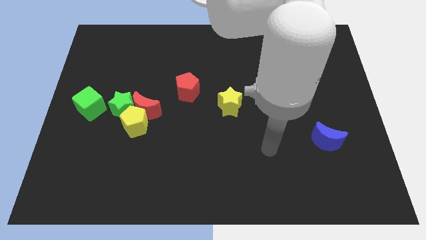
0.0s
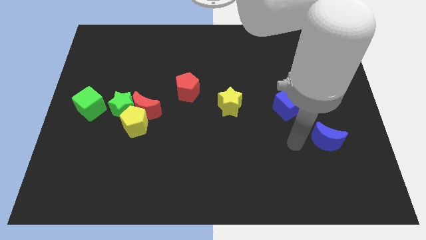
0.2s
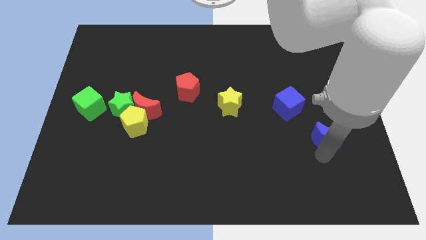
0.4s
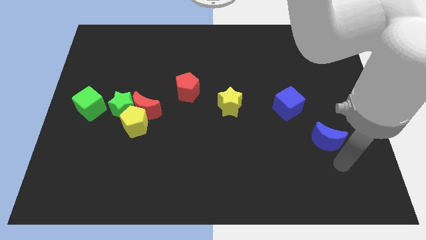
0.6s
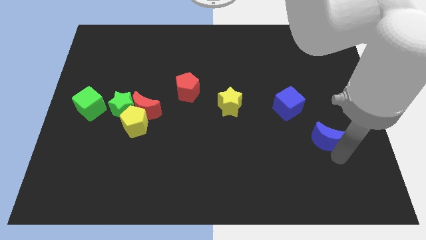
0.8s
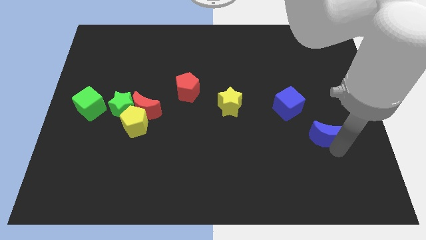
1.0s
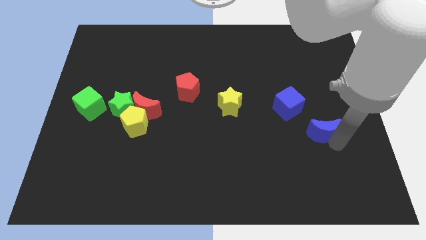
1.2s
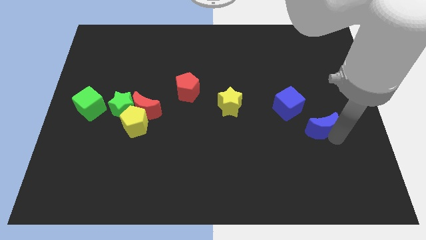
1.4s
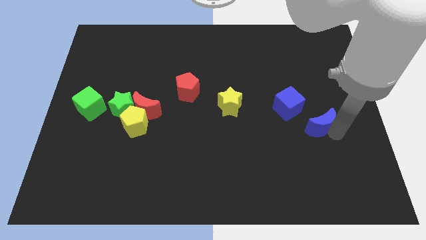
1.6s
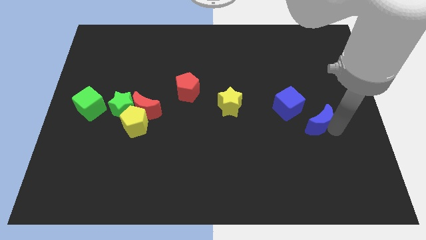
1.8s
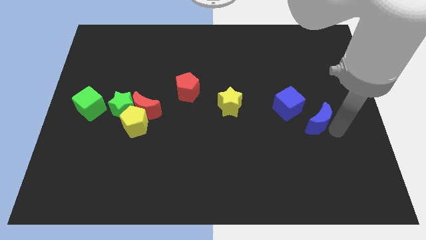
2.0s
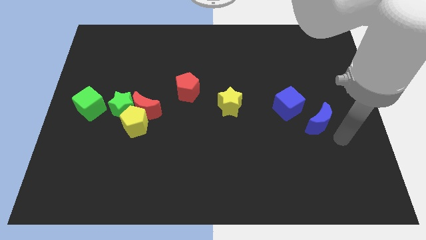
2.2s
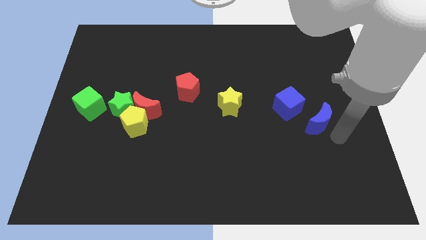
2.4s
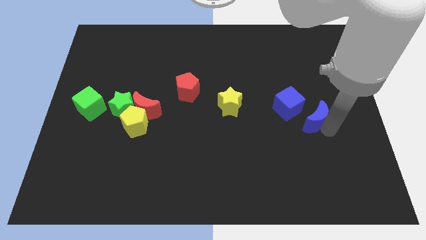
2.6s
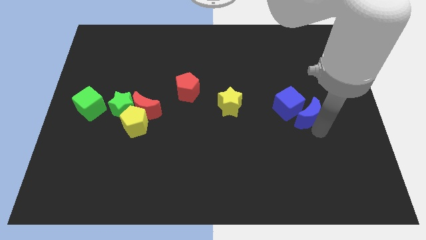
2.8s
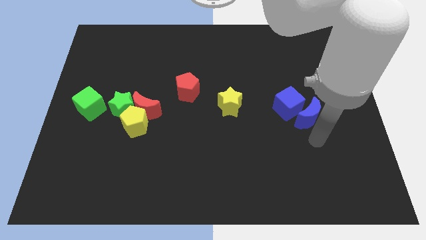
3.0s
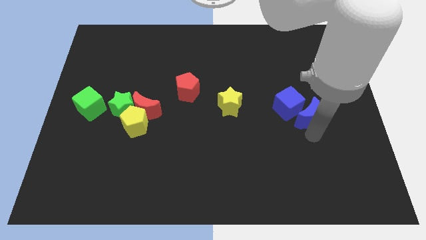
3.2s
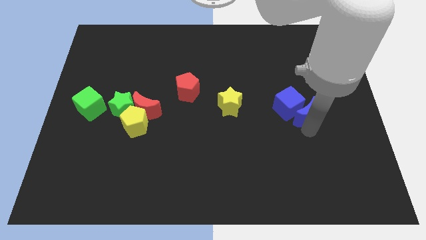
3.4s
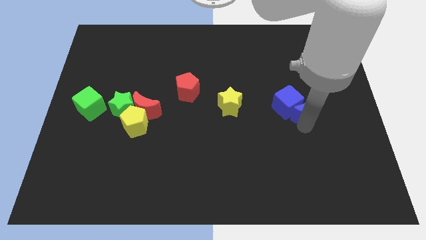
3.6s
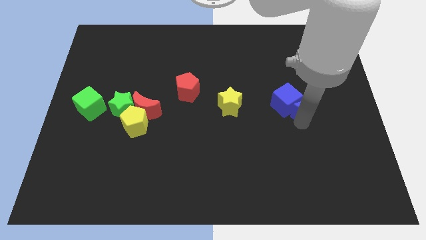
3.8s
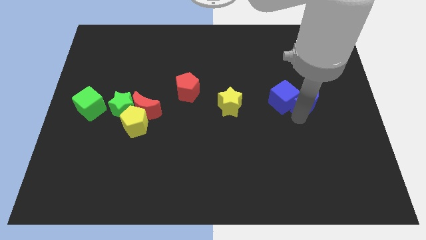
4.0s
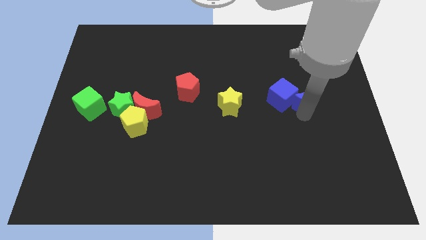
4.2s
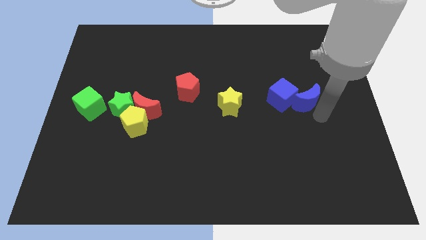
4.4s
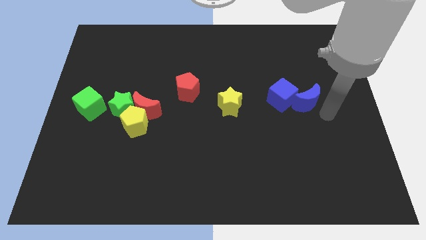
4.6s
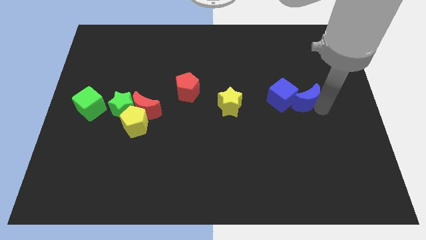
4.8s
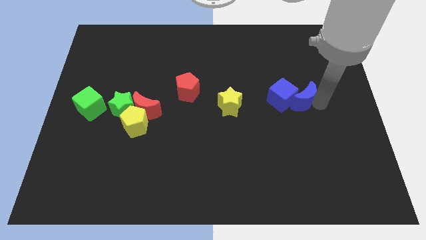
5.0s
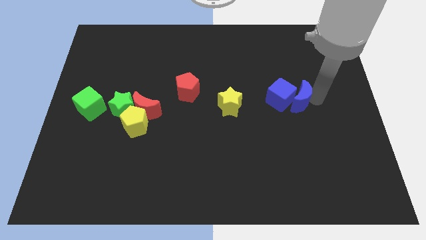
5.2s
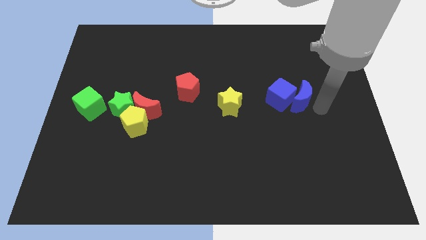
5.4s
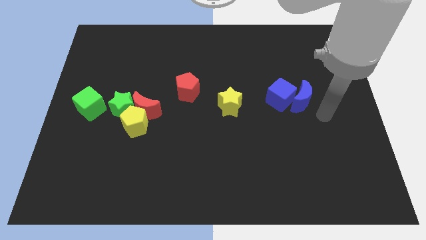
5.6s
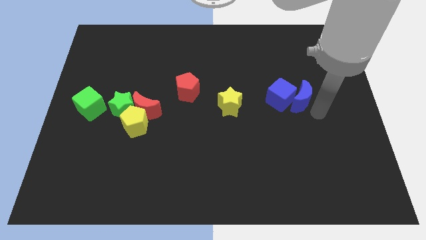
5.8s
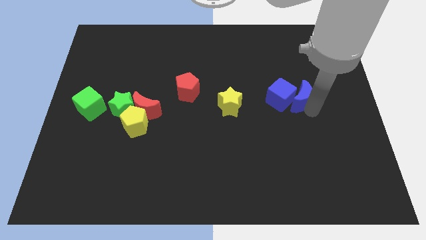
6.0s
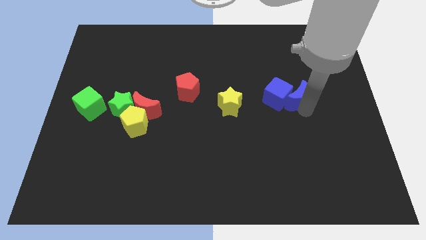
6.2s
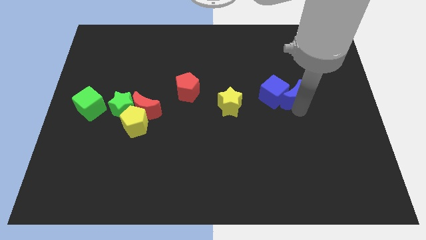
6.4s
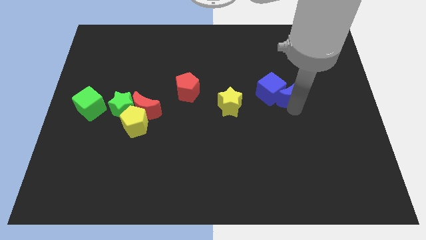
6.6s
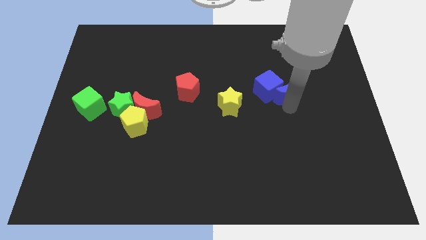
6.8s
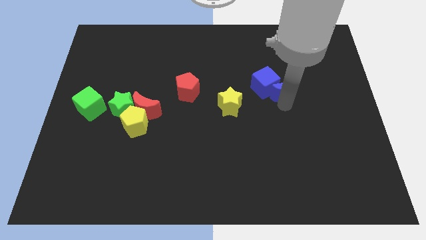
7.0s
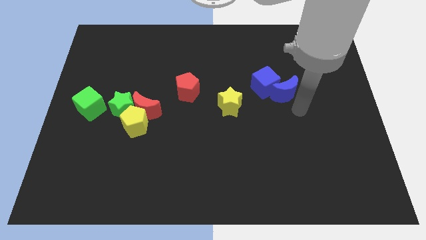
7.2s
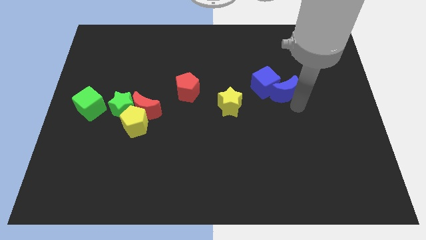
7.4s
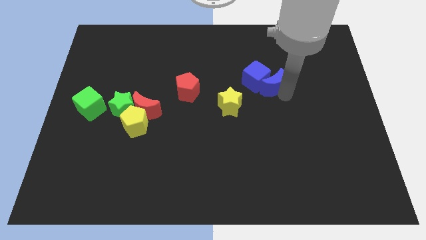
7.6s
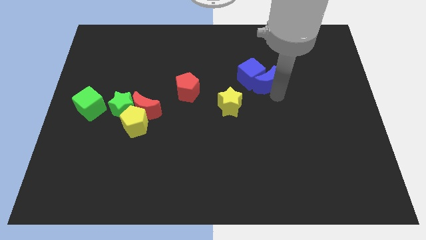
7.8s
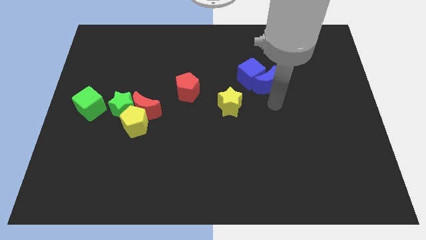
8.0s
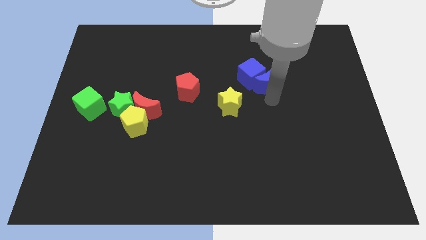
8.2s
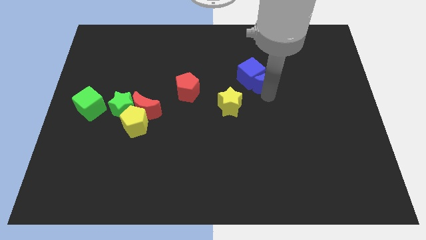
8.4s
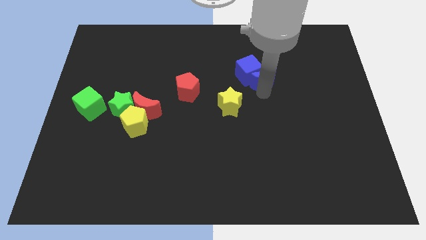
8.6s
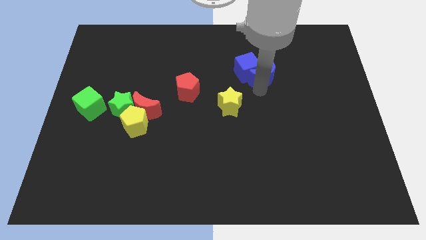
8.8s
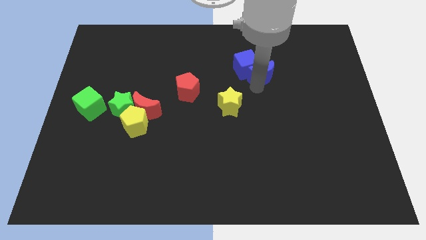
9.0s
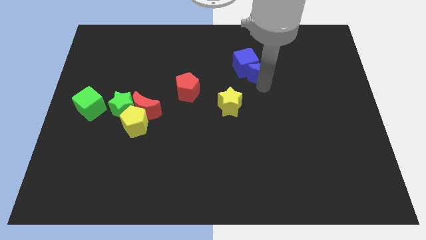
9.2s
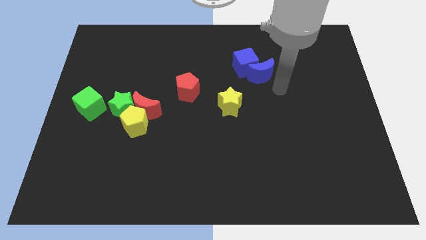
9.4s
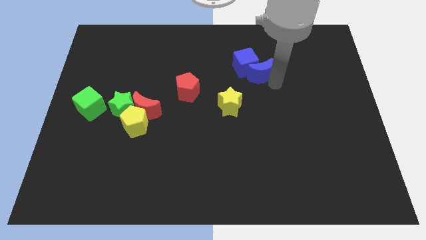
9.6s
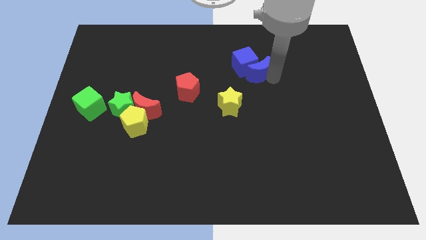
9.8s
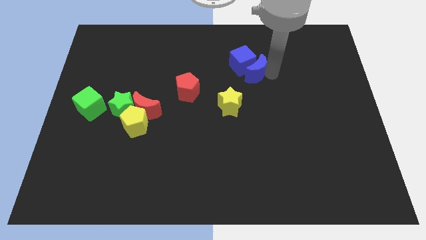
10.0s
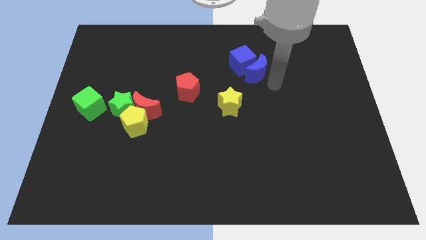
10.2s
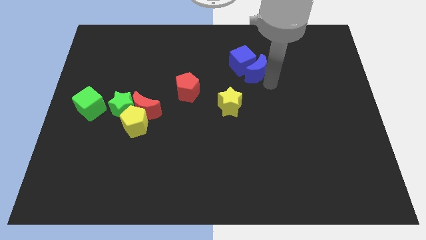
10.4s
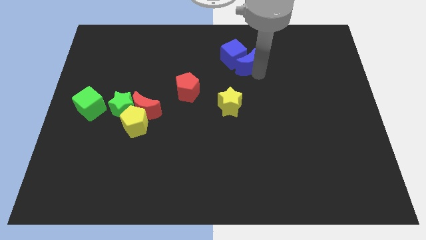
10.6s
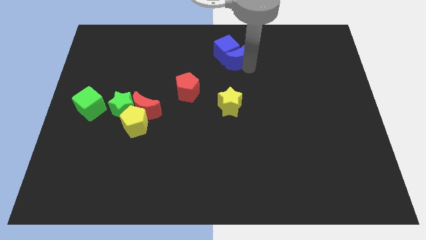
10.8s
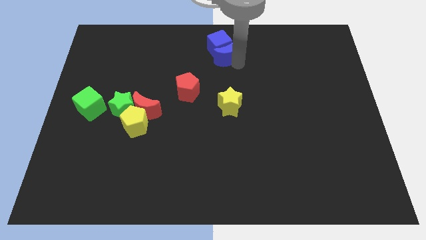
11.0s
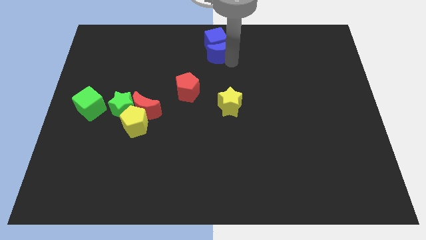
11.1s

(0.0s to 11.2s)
push the blue moon to the top
